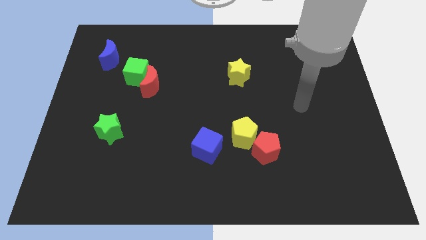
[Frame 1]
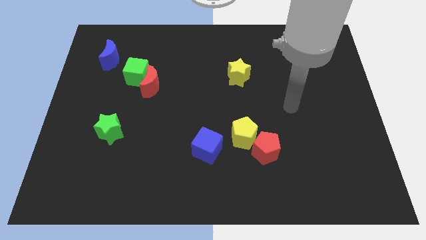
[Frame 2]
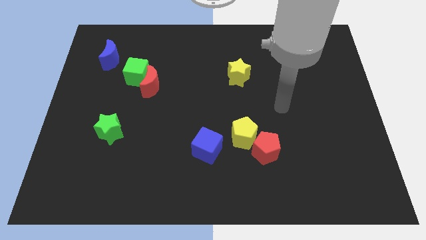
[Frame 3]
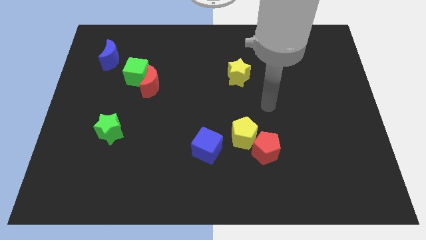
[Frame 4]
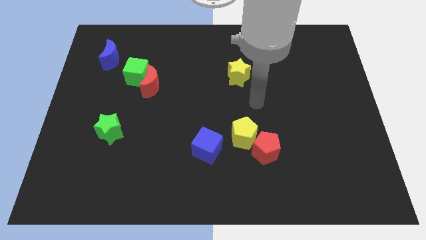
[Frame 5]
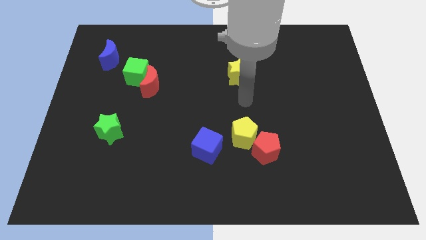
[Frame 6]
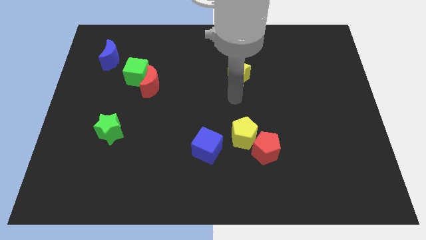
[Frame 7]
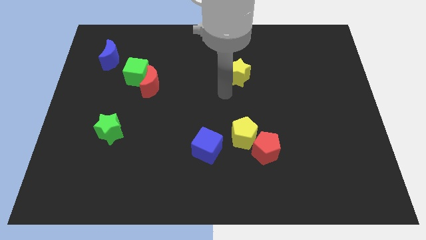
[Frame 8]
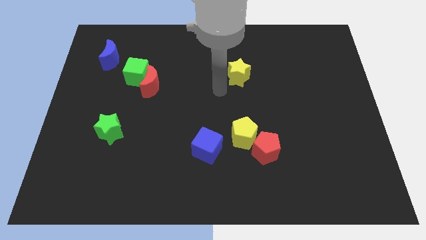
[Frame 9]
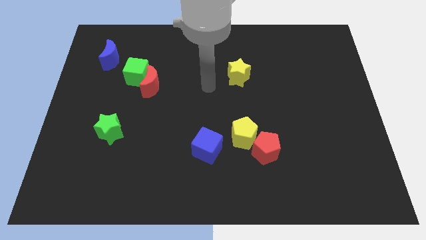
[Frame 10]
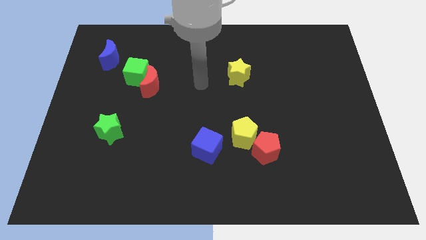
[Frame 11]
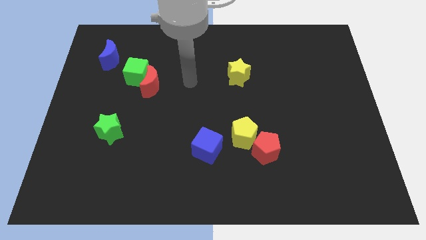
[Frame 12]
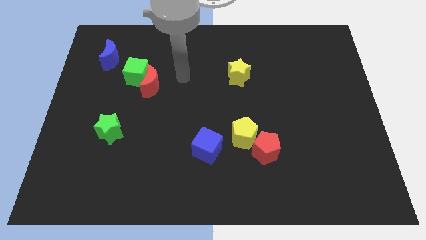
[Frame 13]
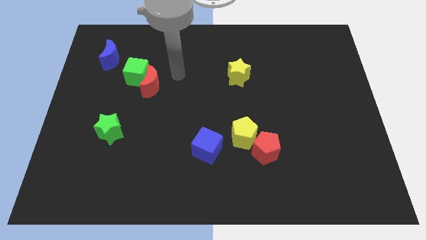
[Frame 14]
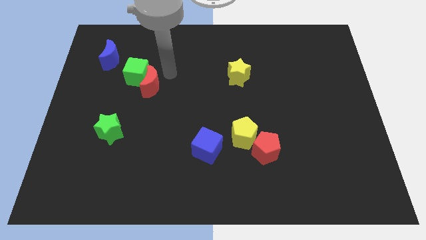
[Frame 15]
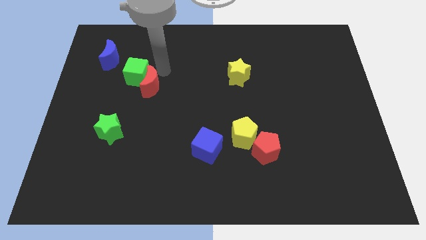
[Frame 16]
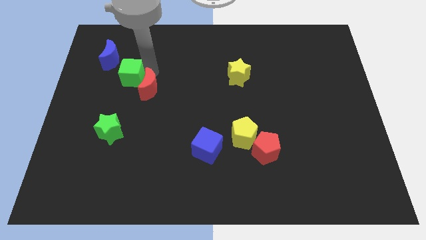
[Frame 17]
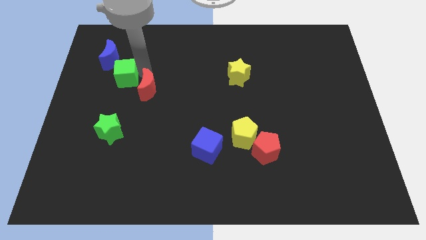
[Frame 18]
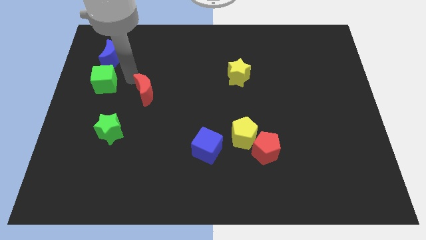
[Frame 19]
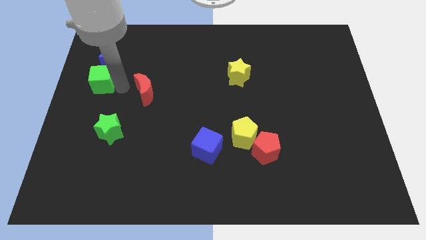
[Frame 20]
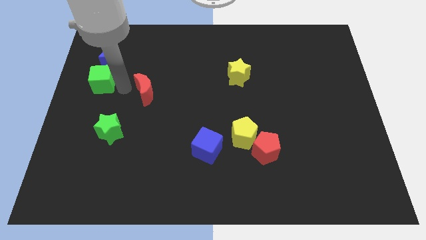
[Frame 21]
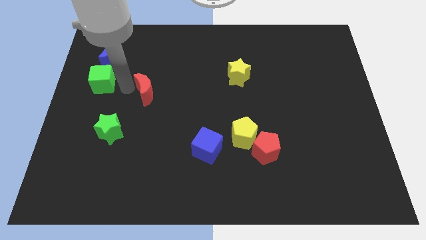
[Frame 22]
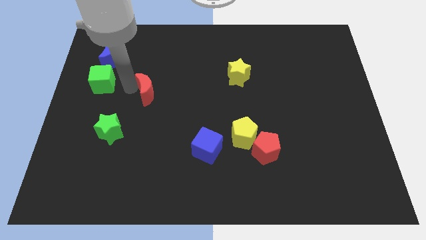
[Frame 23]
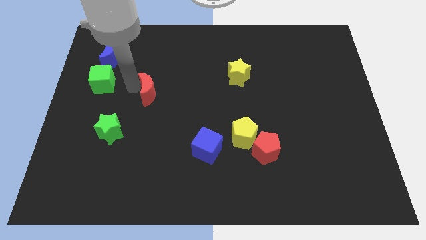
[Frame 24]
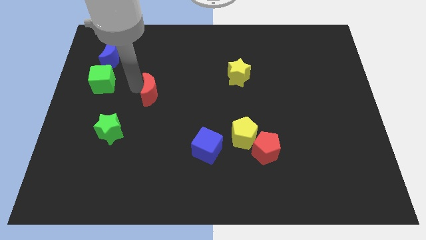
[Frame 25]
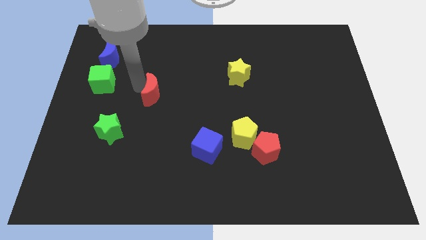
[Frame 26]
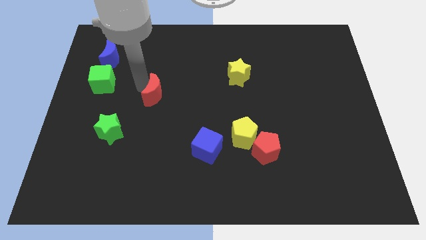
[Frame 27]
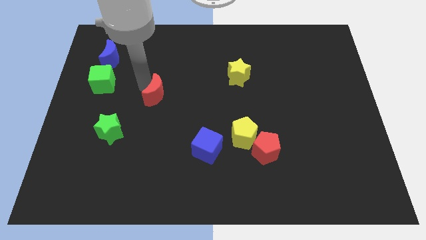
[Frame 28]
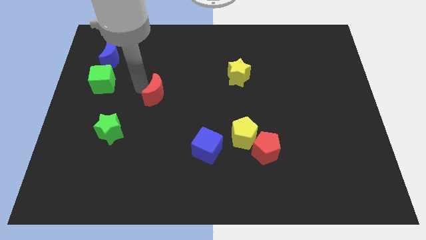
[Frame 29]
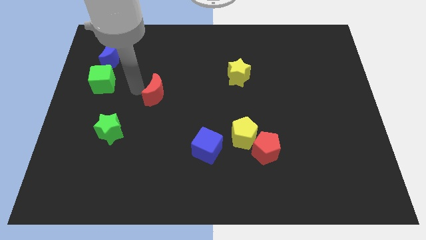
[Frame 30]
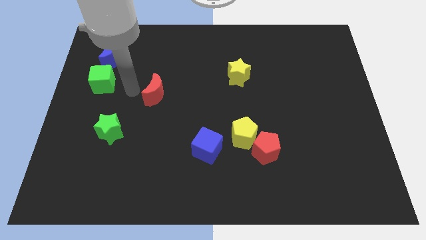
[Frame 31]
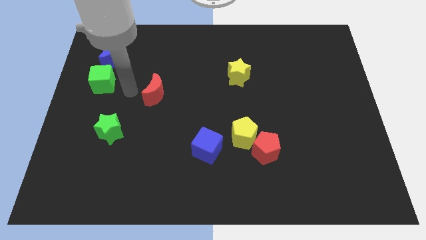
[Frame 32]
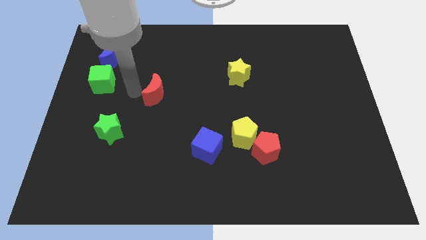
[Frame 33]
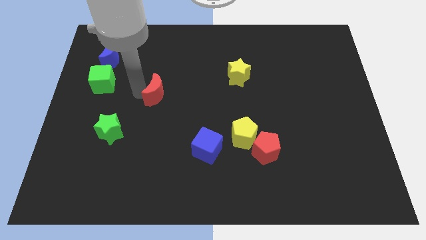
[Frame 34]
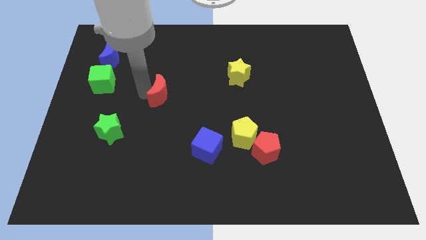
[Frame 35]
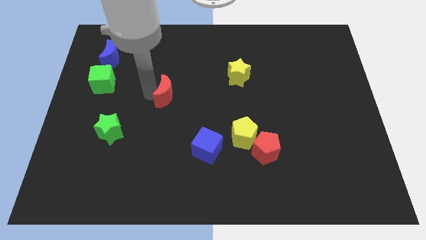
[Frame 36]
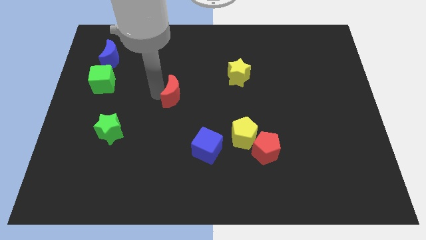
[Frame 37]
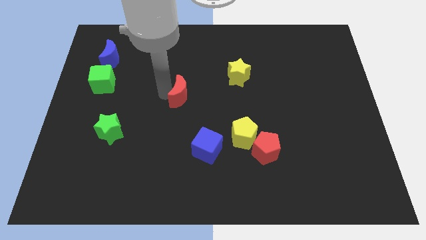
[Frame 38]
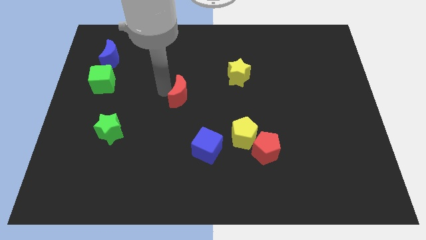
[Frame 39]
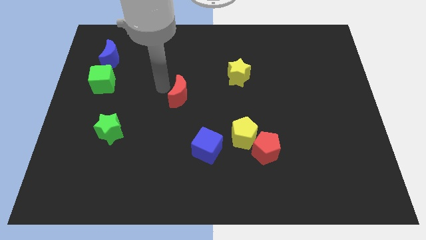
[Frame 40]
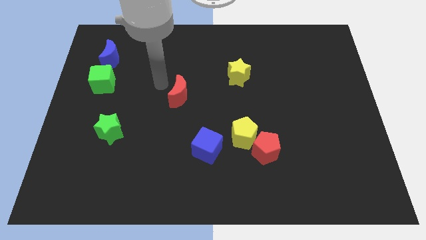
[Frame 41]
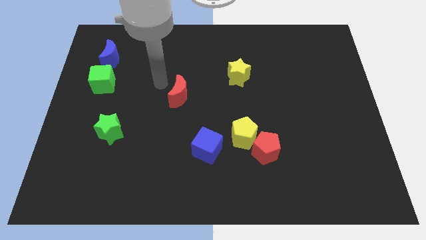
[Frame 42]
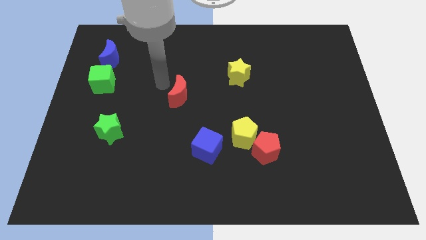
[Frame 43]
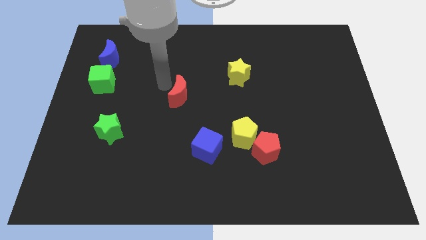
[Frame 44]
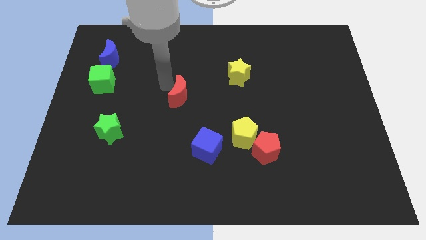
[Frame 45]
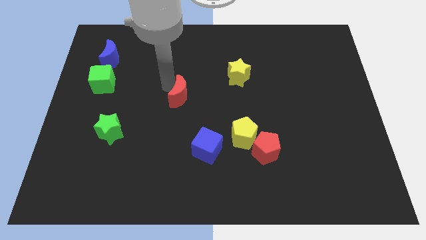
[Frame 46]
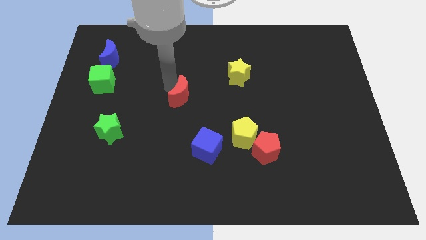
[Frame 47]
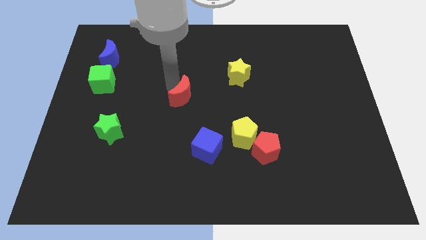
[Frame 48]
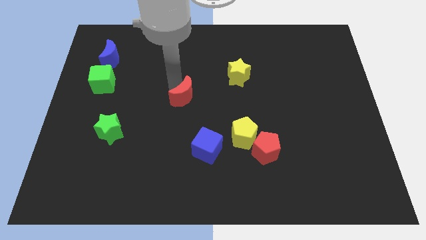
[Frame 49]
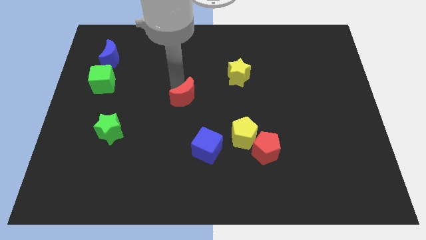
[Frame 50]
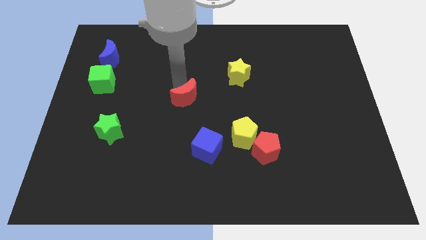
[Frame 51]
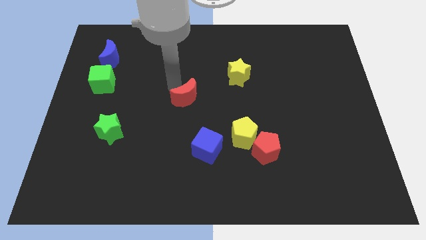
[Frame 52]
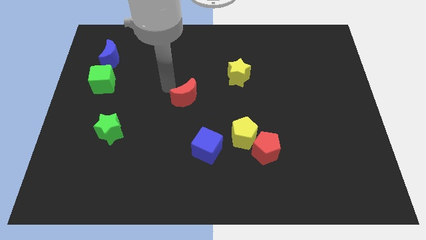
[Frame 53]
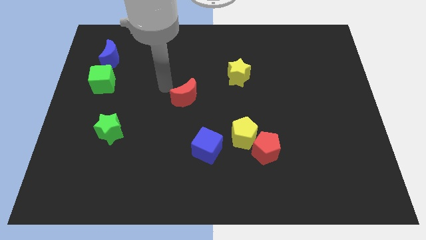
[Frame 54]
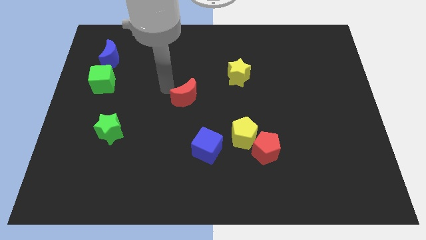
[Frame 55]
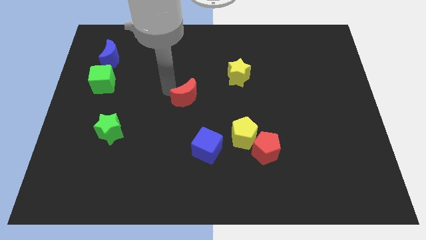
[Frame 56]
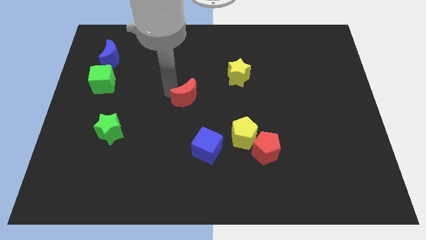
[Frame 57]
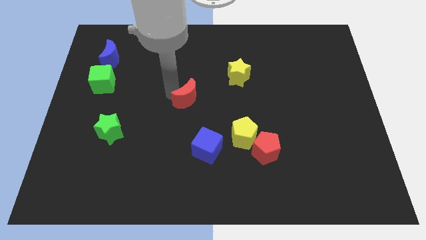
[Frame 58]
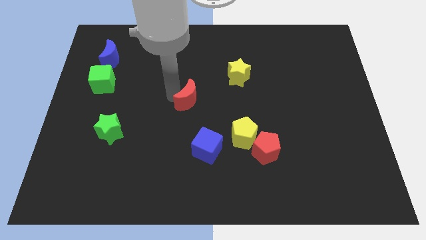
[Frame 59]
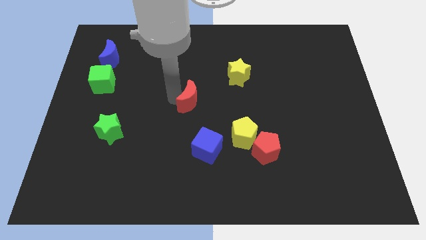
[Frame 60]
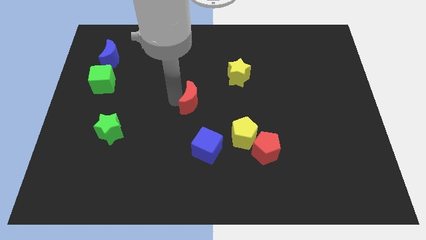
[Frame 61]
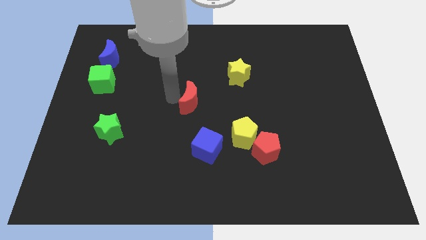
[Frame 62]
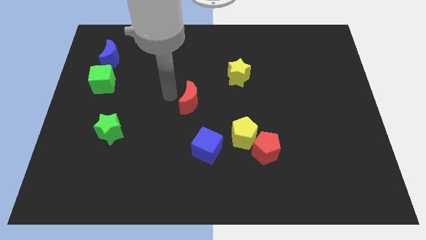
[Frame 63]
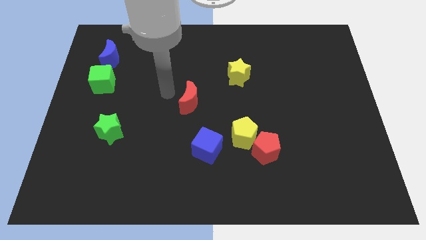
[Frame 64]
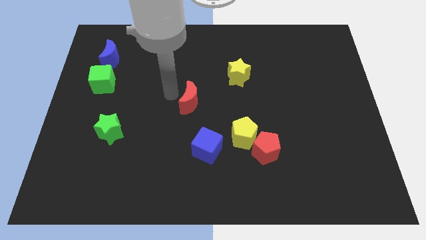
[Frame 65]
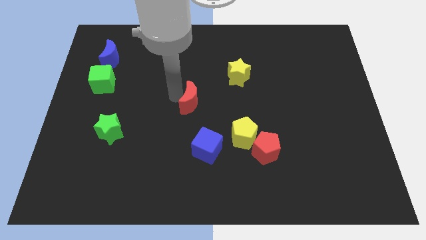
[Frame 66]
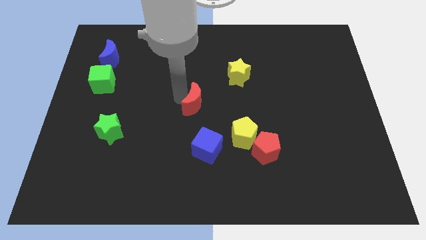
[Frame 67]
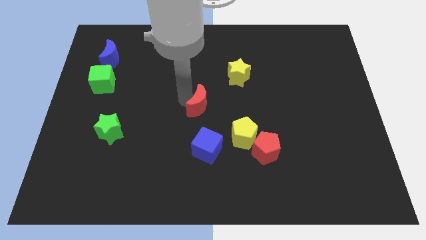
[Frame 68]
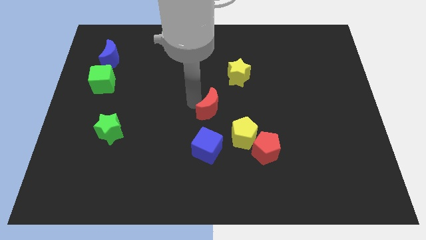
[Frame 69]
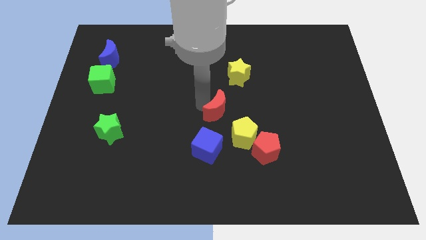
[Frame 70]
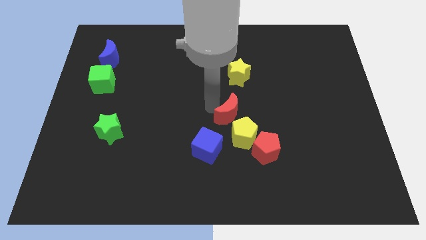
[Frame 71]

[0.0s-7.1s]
slide the red moon to the top left of the red pentagon

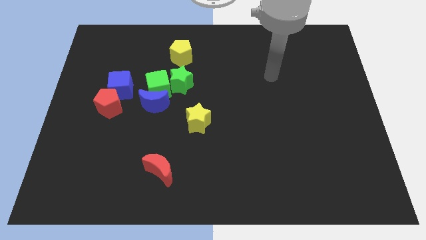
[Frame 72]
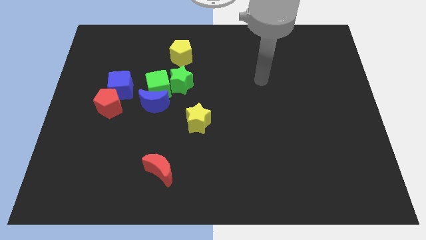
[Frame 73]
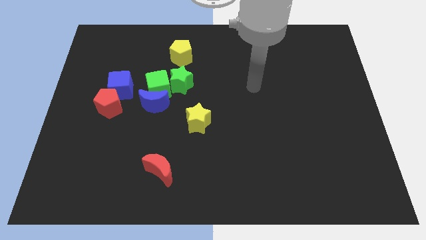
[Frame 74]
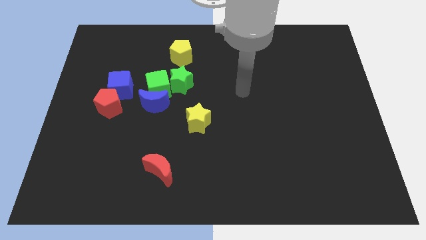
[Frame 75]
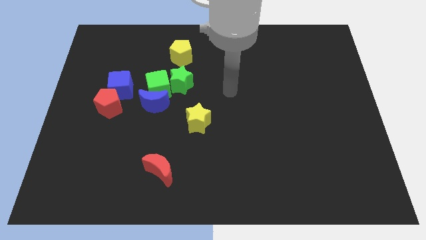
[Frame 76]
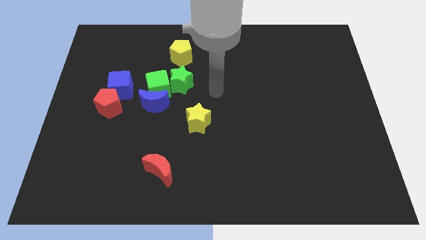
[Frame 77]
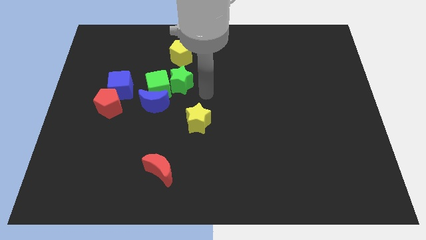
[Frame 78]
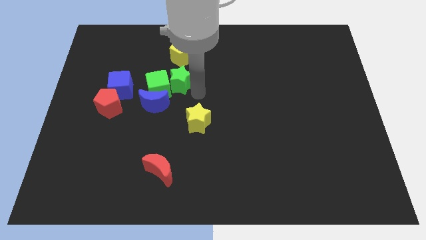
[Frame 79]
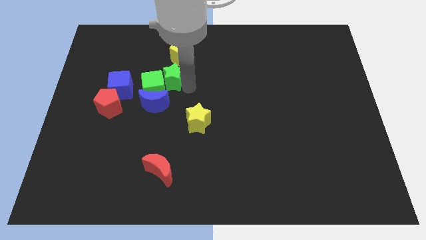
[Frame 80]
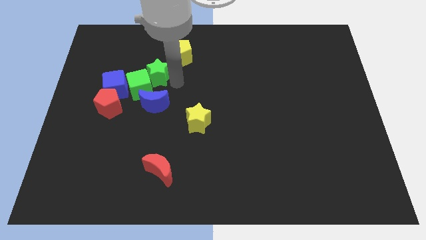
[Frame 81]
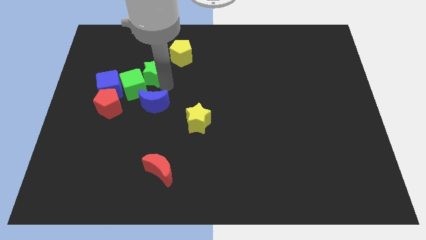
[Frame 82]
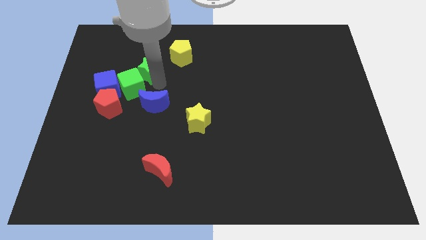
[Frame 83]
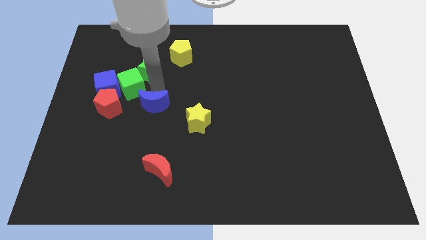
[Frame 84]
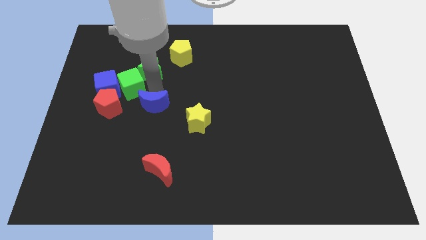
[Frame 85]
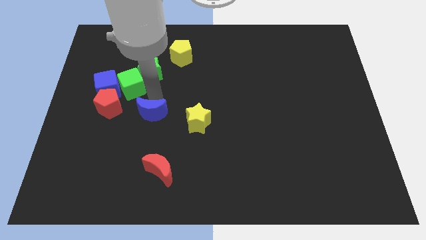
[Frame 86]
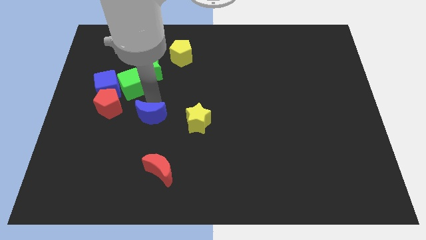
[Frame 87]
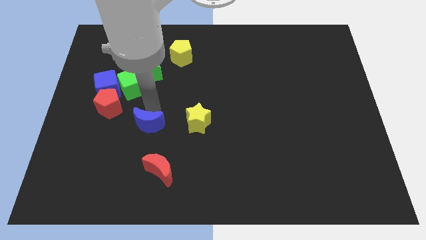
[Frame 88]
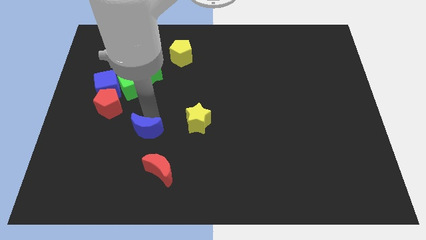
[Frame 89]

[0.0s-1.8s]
put the blue moon to the top left of the red moon
